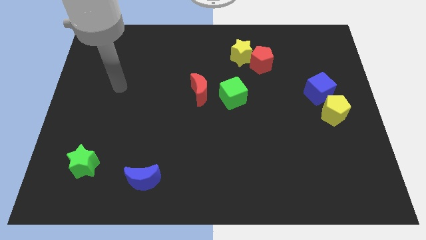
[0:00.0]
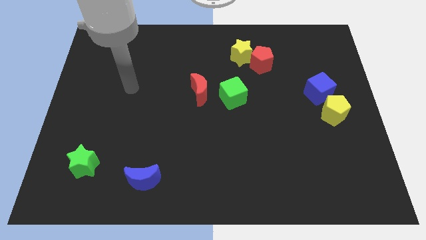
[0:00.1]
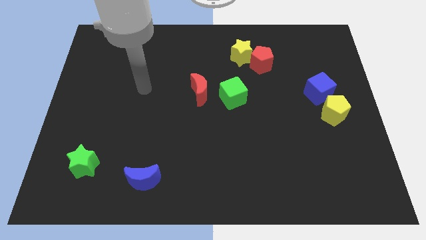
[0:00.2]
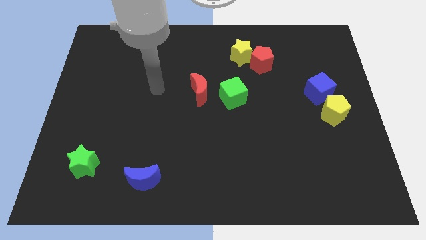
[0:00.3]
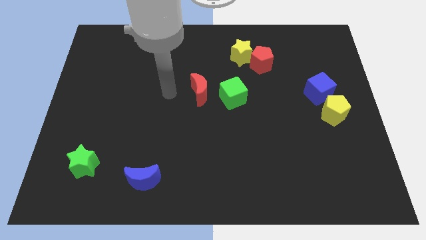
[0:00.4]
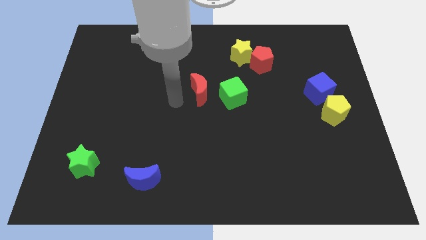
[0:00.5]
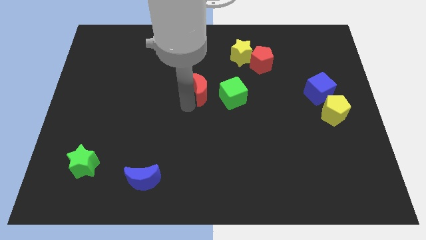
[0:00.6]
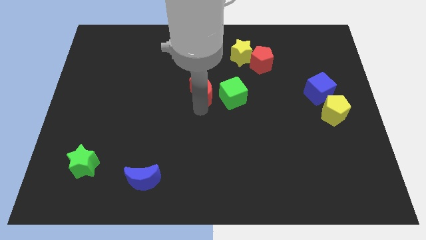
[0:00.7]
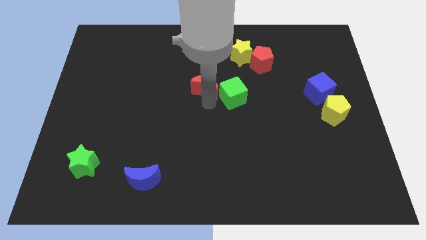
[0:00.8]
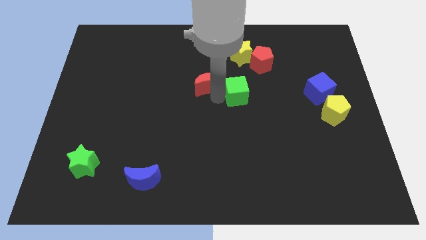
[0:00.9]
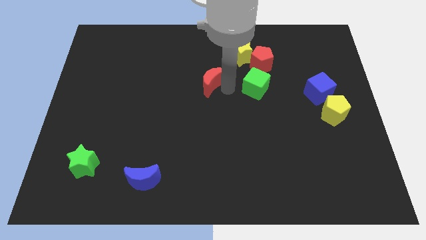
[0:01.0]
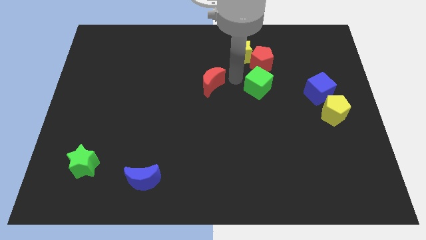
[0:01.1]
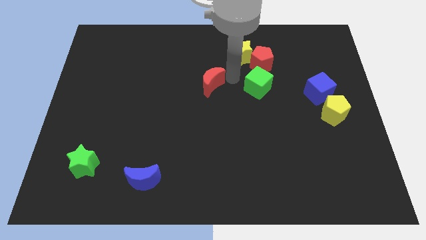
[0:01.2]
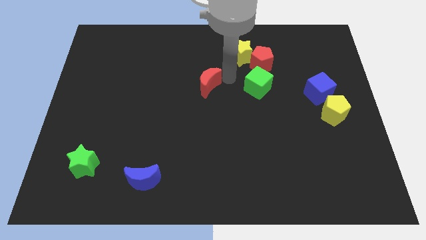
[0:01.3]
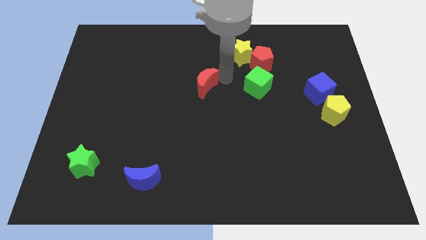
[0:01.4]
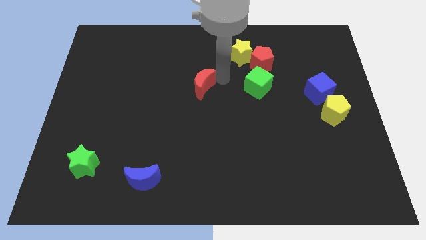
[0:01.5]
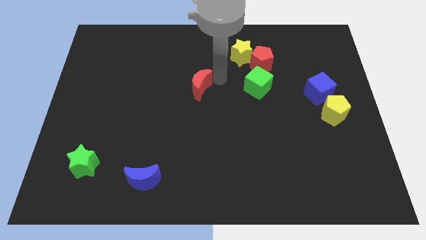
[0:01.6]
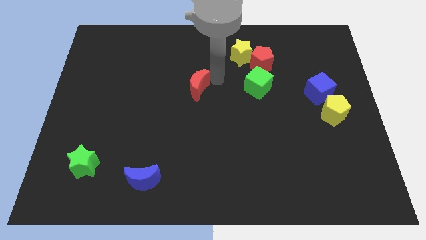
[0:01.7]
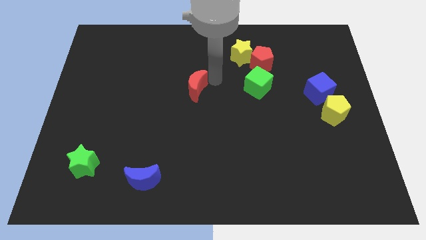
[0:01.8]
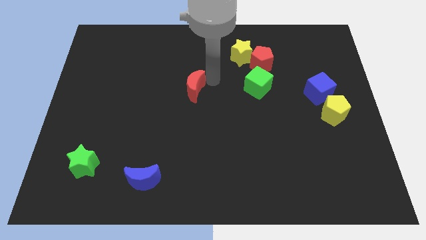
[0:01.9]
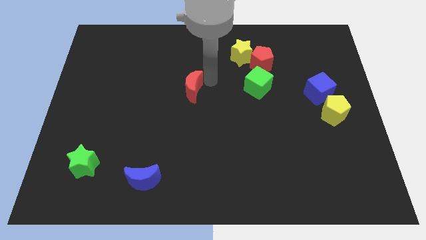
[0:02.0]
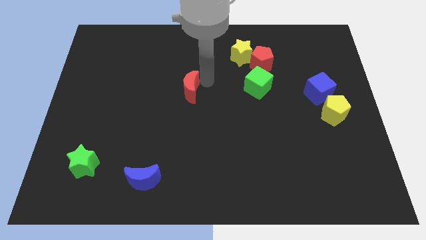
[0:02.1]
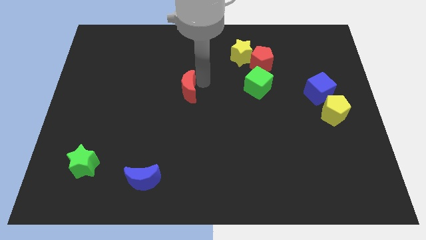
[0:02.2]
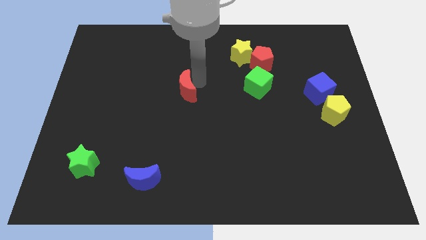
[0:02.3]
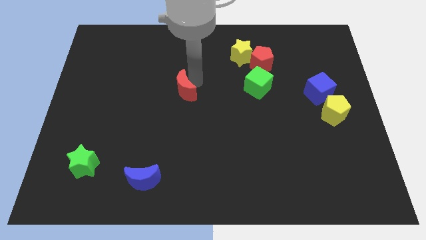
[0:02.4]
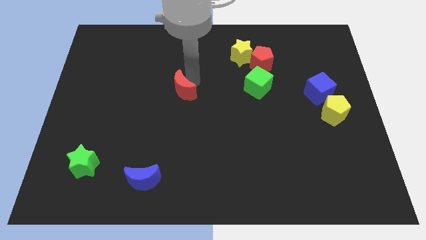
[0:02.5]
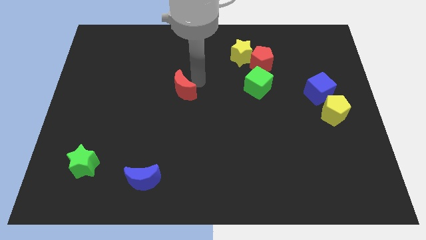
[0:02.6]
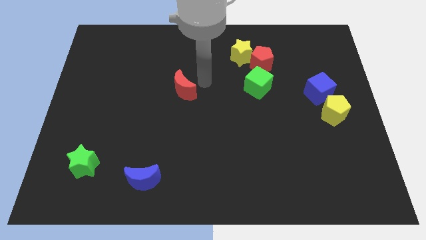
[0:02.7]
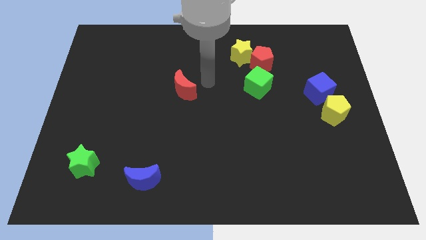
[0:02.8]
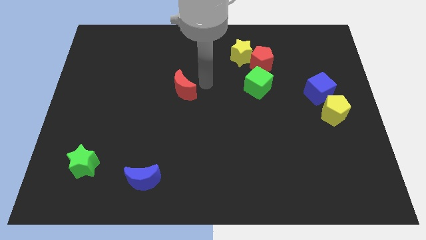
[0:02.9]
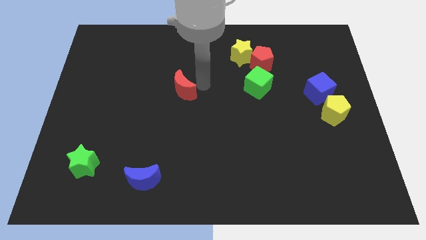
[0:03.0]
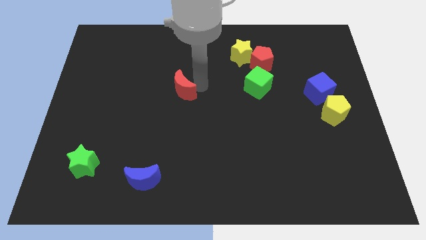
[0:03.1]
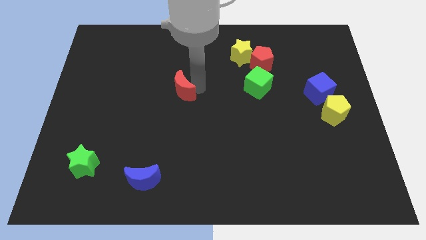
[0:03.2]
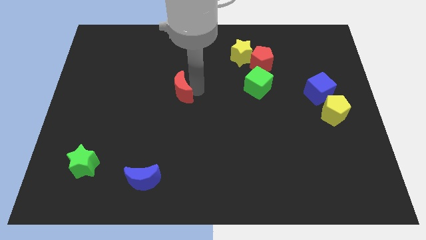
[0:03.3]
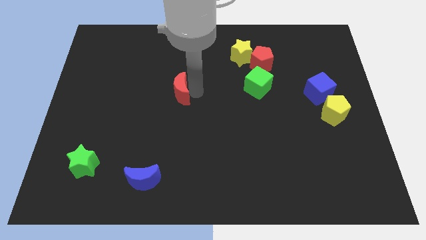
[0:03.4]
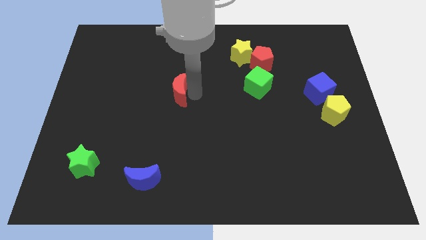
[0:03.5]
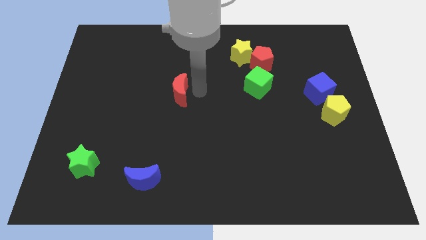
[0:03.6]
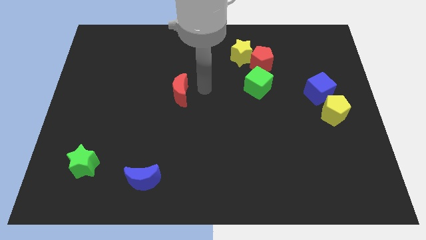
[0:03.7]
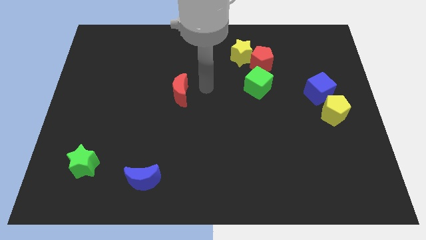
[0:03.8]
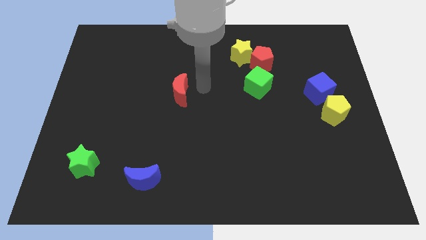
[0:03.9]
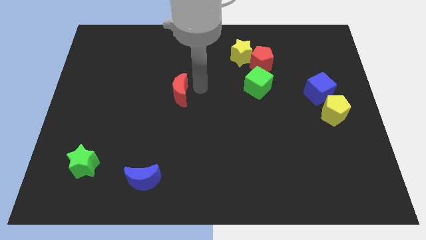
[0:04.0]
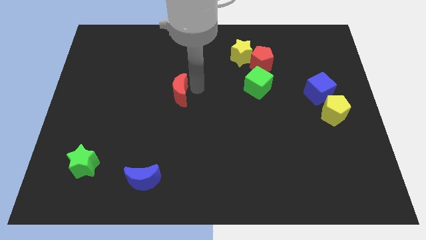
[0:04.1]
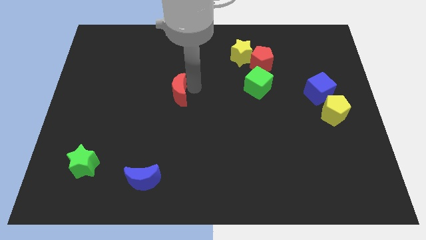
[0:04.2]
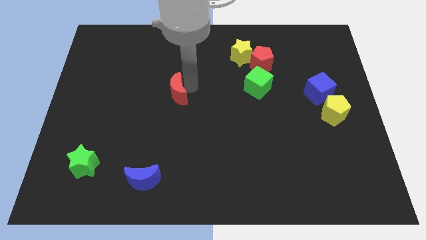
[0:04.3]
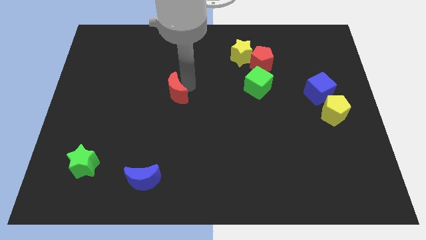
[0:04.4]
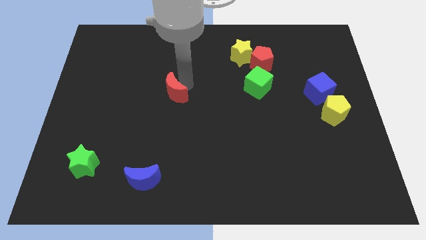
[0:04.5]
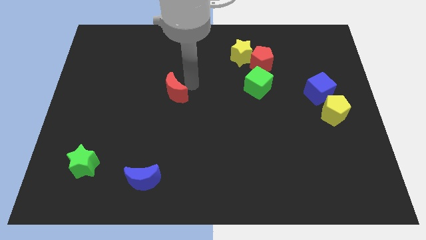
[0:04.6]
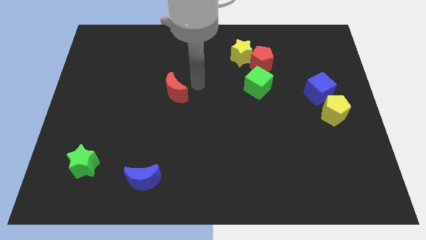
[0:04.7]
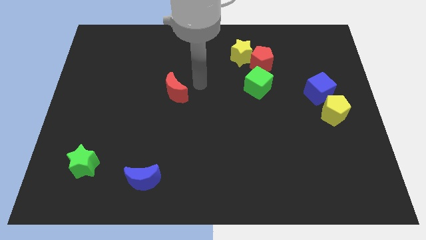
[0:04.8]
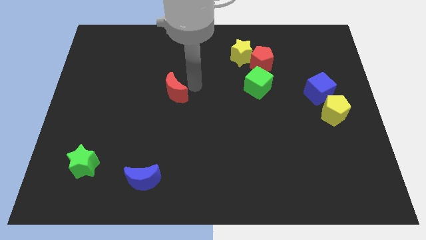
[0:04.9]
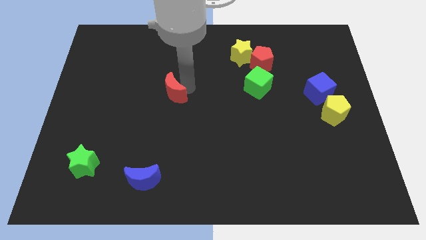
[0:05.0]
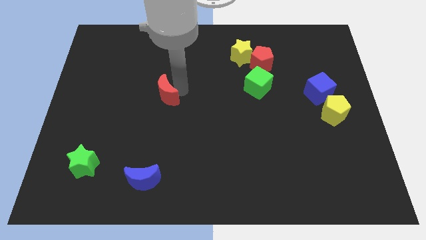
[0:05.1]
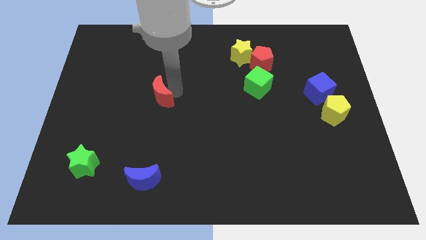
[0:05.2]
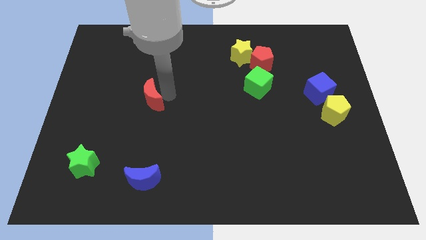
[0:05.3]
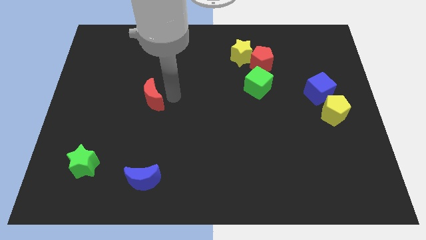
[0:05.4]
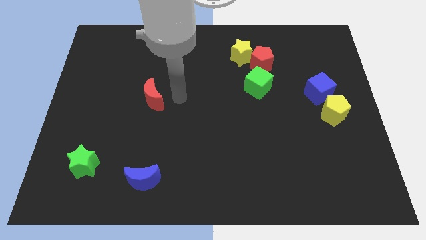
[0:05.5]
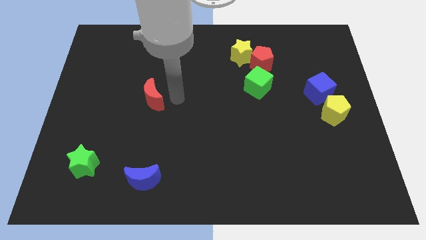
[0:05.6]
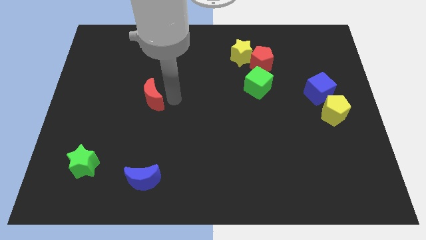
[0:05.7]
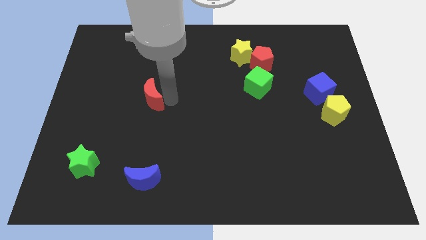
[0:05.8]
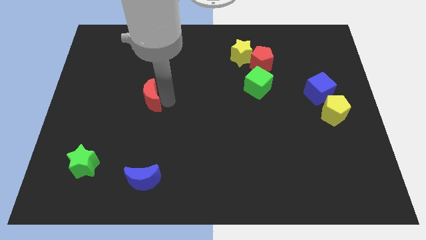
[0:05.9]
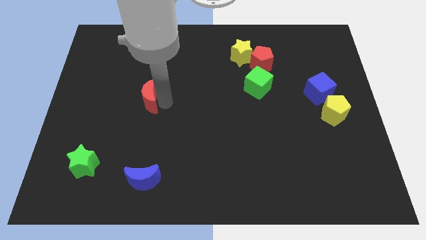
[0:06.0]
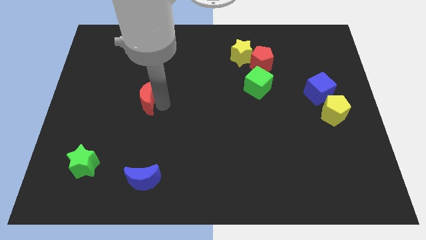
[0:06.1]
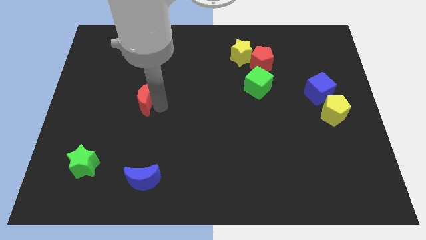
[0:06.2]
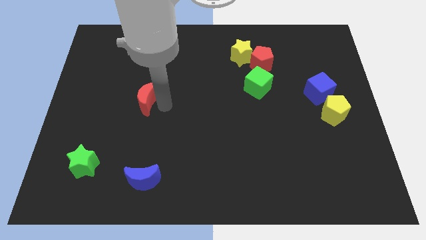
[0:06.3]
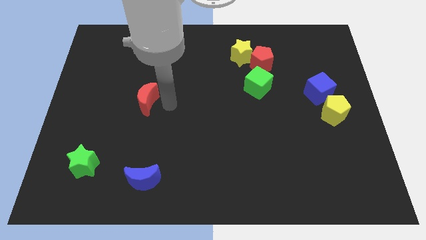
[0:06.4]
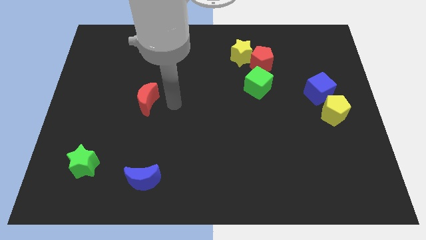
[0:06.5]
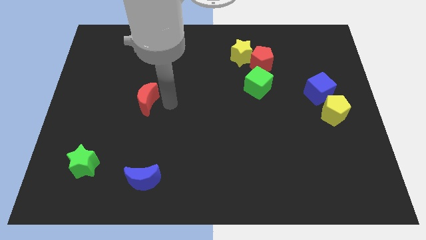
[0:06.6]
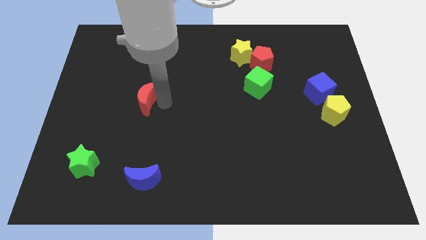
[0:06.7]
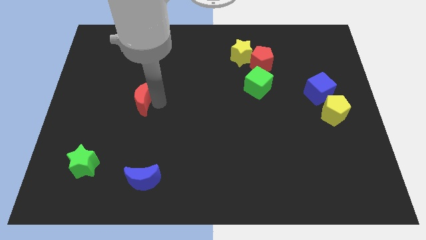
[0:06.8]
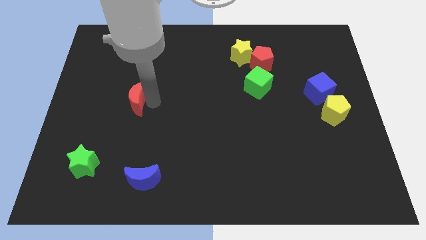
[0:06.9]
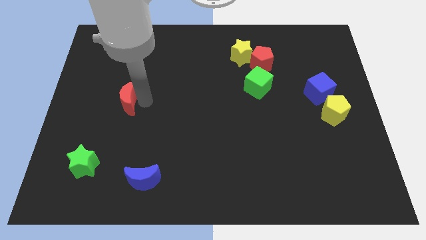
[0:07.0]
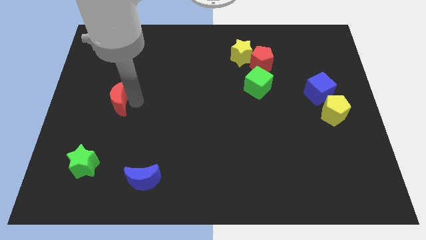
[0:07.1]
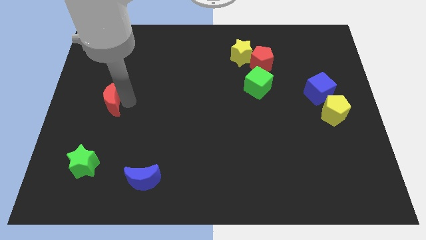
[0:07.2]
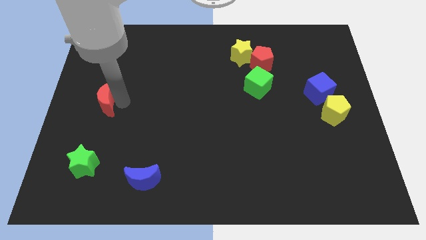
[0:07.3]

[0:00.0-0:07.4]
slide the red moon to the center left
